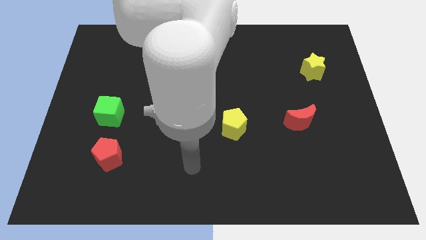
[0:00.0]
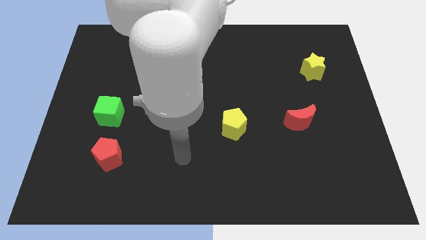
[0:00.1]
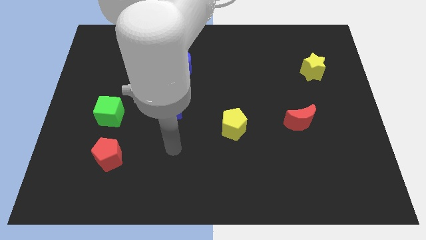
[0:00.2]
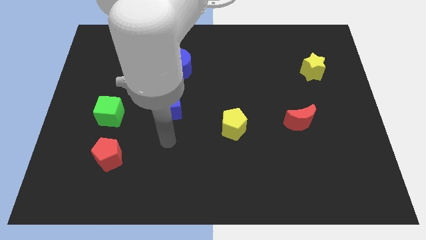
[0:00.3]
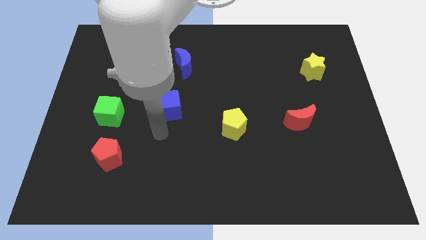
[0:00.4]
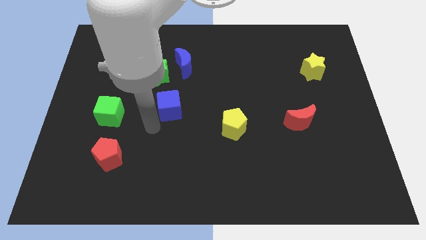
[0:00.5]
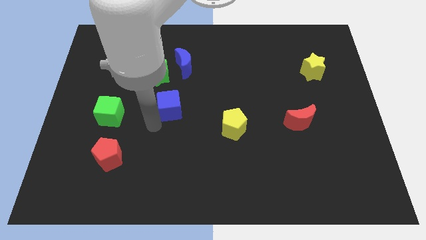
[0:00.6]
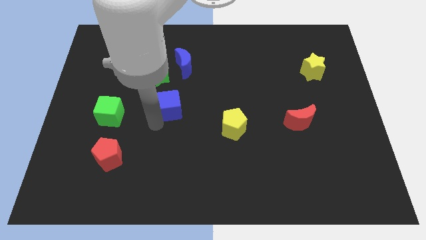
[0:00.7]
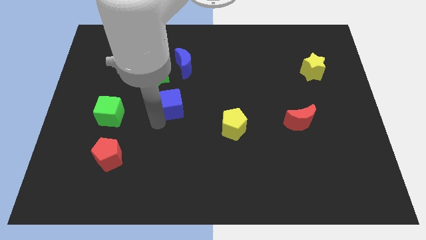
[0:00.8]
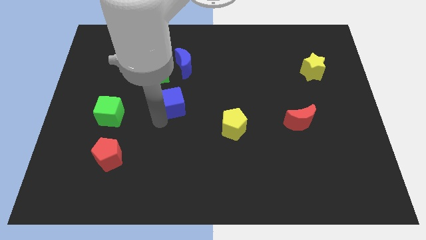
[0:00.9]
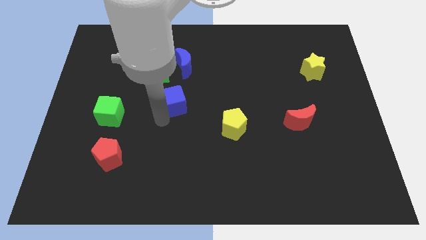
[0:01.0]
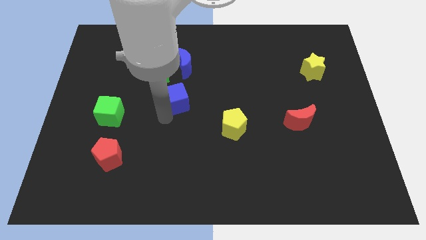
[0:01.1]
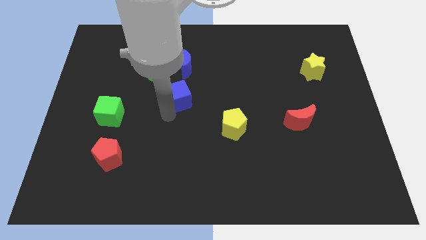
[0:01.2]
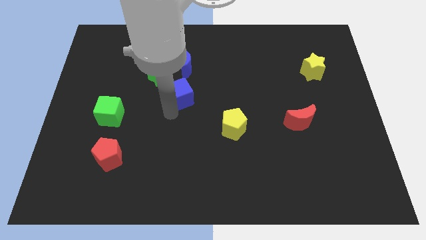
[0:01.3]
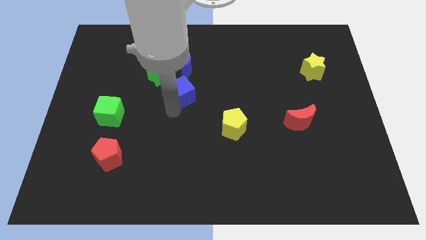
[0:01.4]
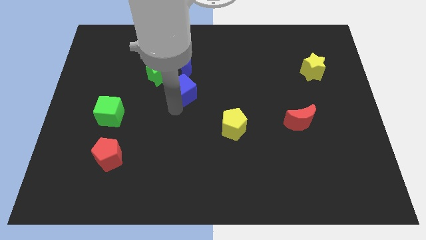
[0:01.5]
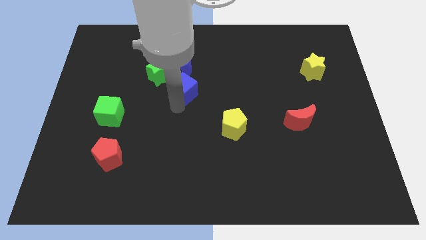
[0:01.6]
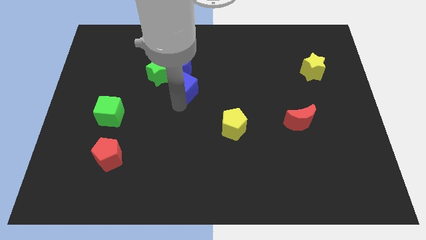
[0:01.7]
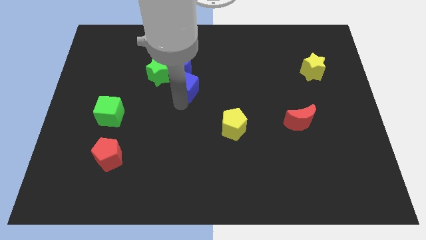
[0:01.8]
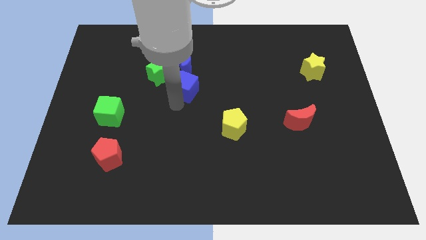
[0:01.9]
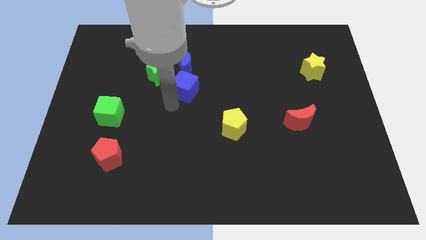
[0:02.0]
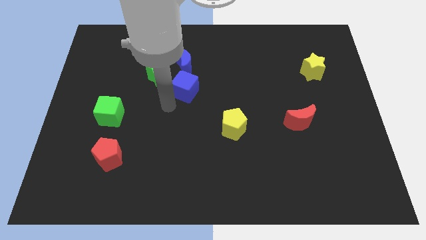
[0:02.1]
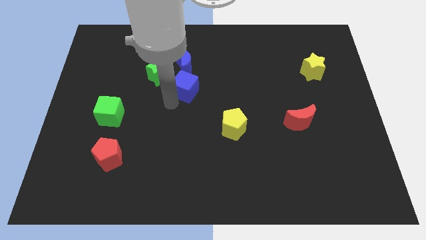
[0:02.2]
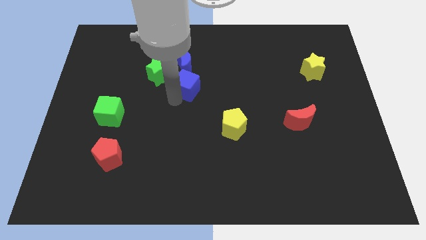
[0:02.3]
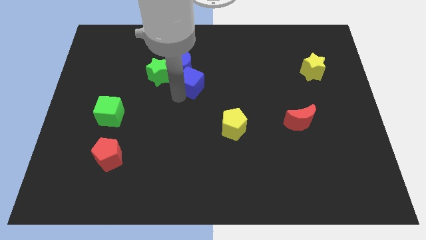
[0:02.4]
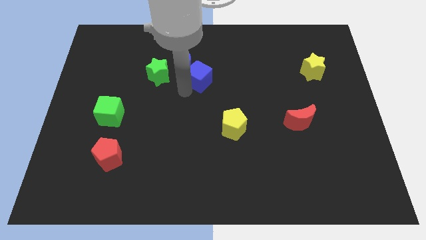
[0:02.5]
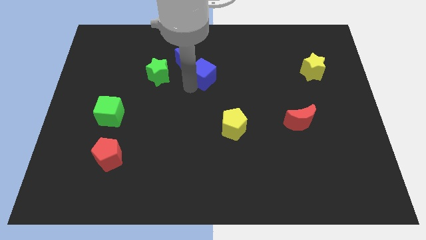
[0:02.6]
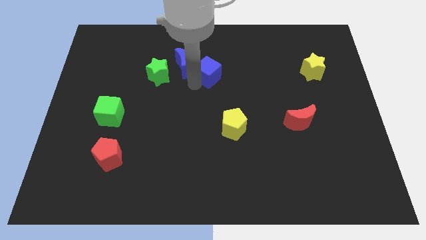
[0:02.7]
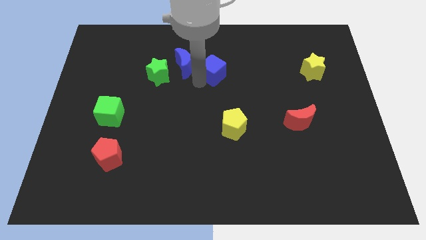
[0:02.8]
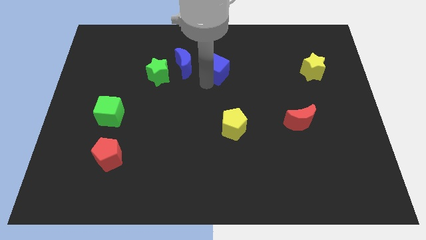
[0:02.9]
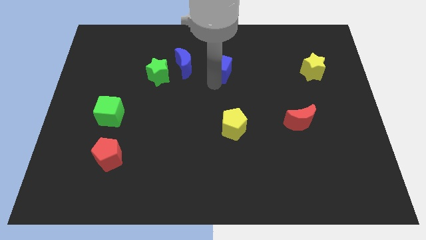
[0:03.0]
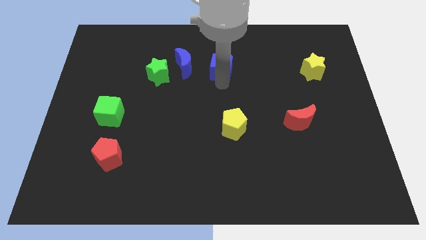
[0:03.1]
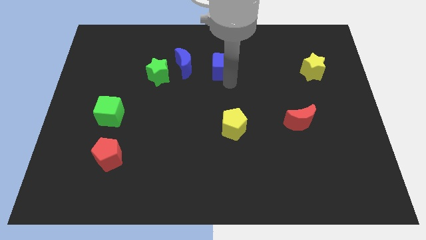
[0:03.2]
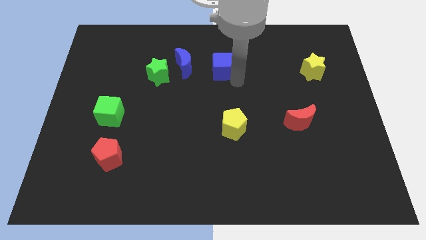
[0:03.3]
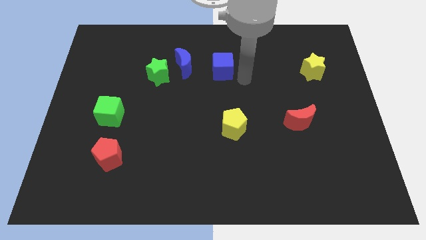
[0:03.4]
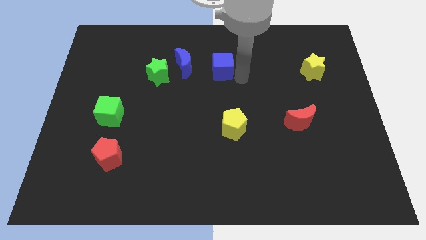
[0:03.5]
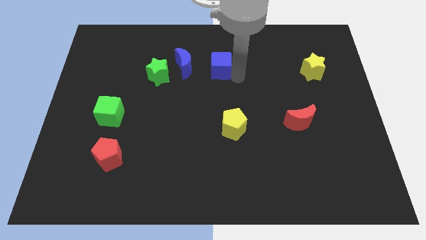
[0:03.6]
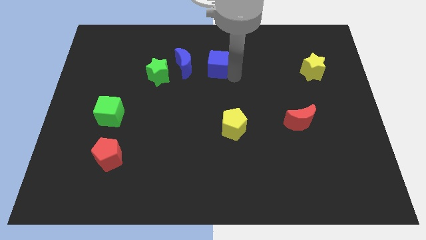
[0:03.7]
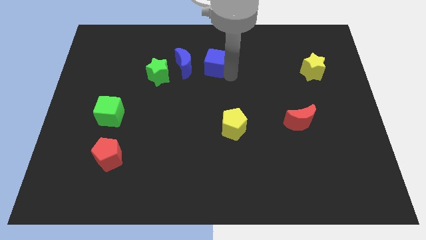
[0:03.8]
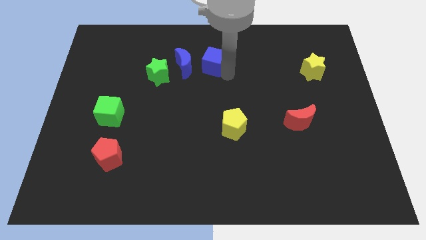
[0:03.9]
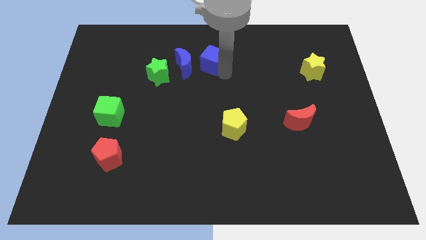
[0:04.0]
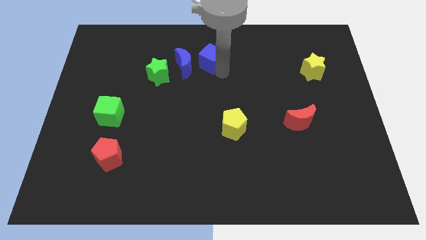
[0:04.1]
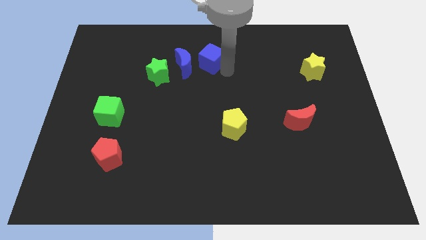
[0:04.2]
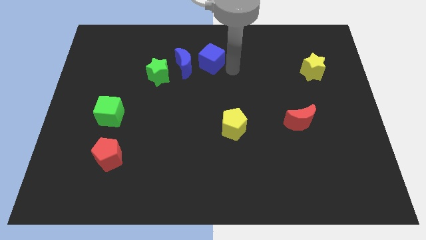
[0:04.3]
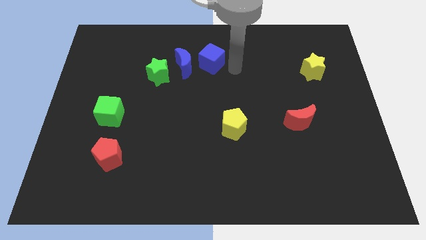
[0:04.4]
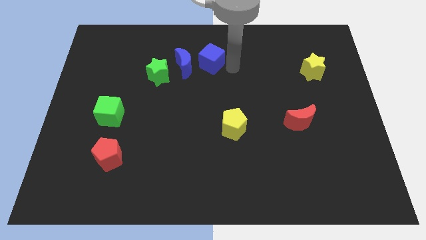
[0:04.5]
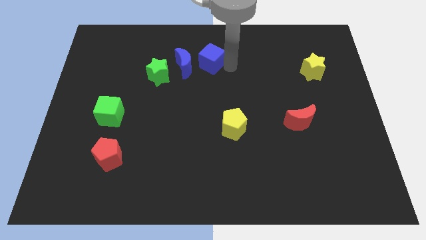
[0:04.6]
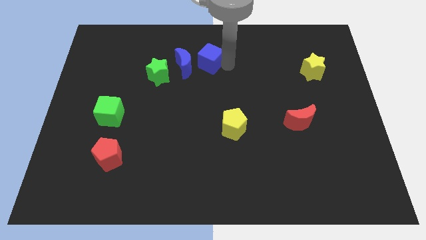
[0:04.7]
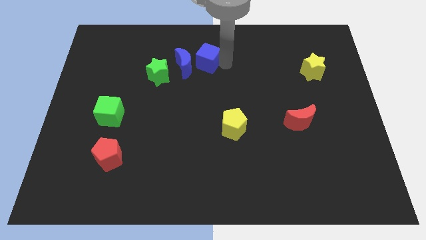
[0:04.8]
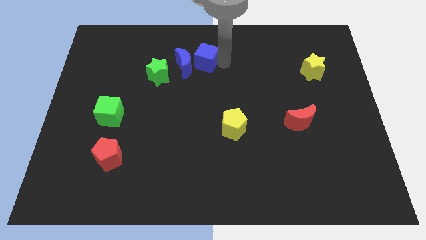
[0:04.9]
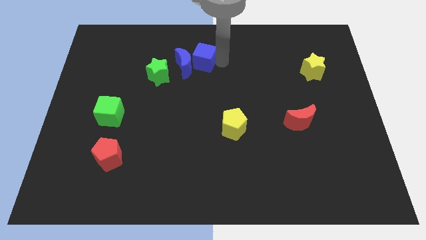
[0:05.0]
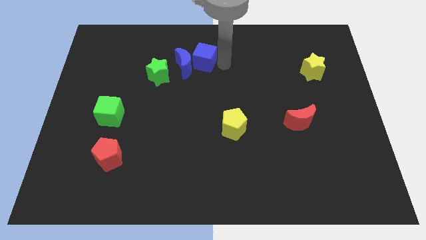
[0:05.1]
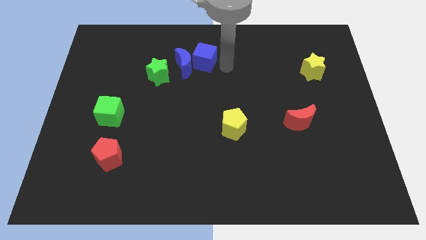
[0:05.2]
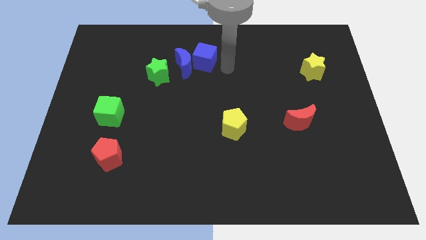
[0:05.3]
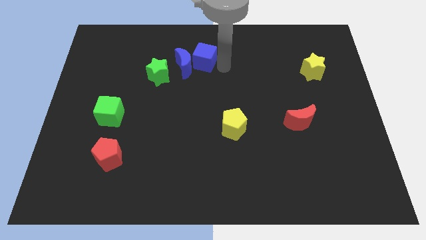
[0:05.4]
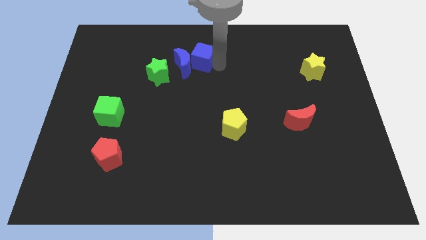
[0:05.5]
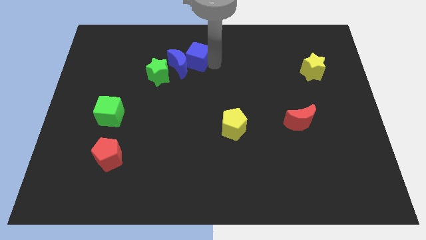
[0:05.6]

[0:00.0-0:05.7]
move the blue cube to the top right side of the green star

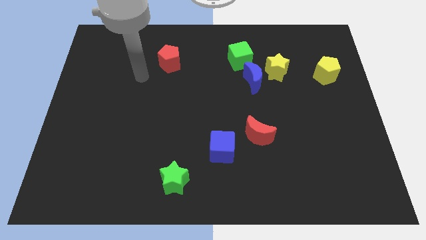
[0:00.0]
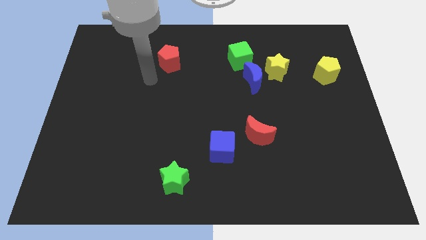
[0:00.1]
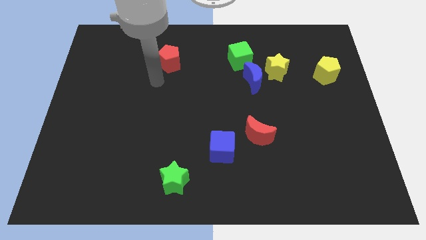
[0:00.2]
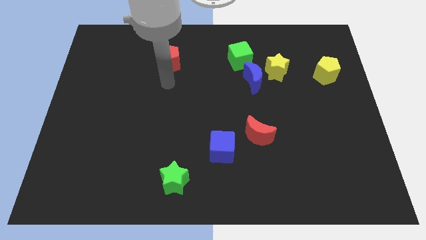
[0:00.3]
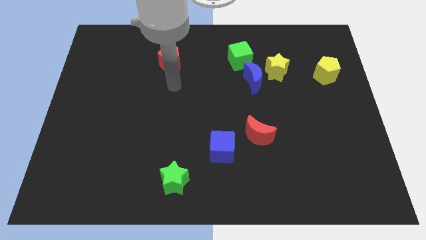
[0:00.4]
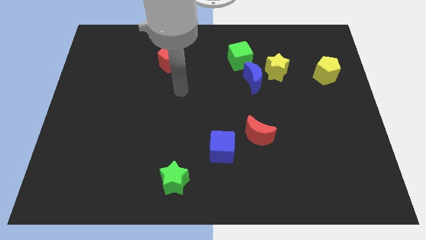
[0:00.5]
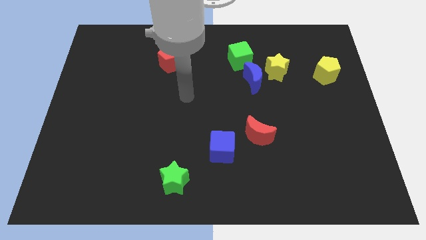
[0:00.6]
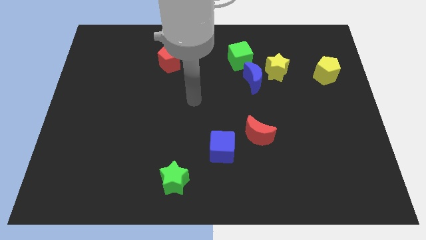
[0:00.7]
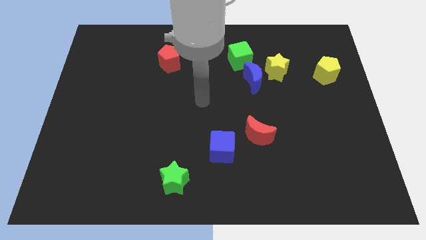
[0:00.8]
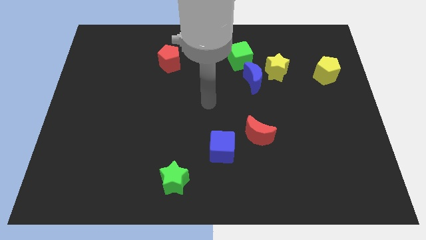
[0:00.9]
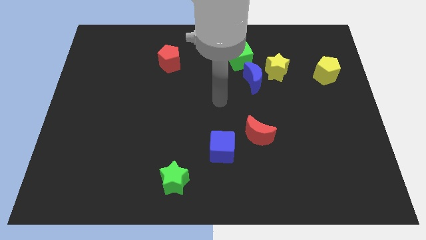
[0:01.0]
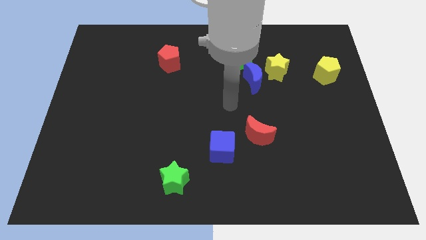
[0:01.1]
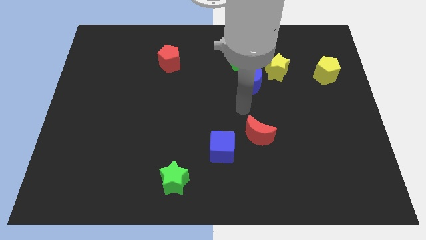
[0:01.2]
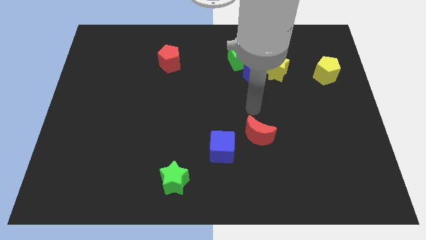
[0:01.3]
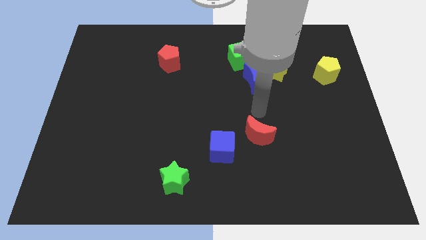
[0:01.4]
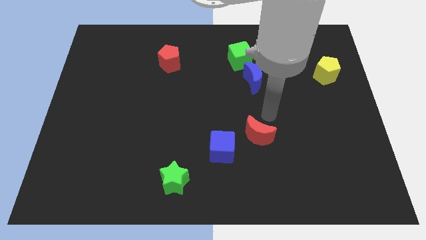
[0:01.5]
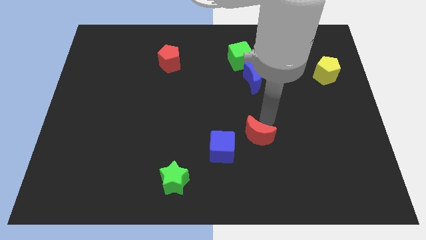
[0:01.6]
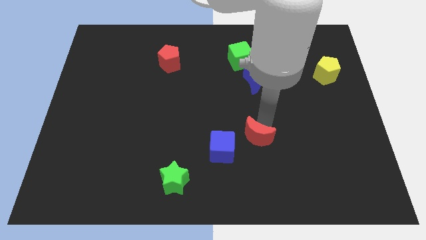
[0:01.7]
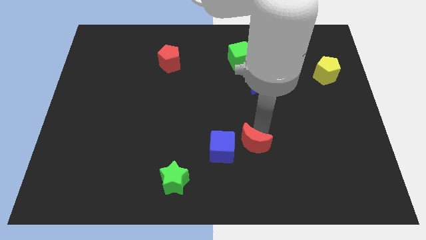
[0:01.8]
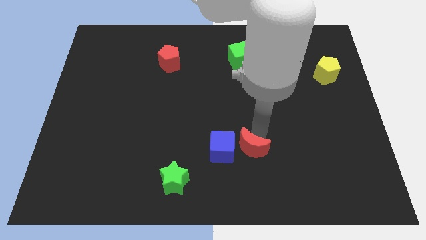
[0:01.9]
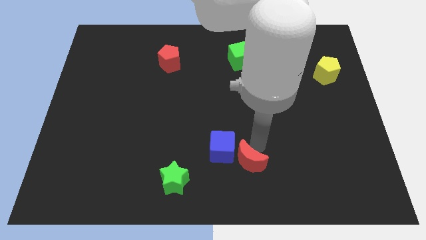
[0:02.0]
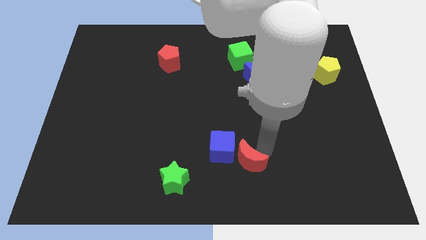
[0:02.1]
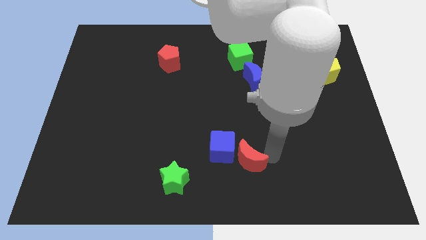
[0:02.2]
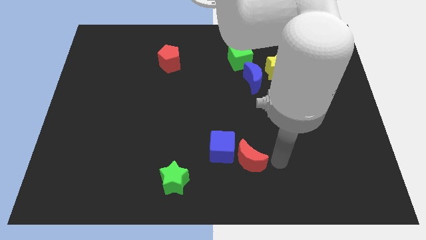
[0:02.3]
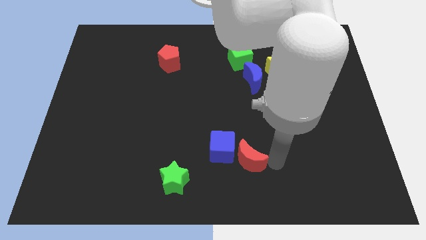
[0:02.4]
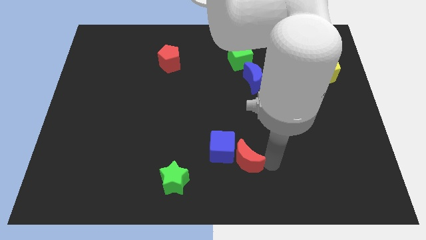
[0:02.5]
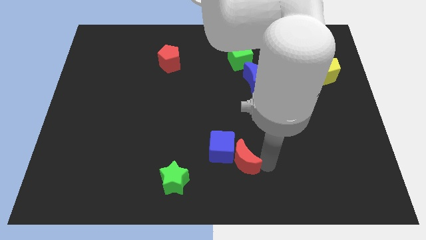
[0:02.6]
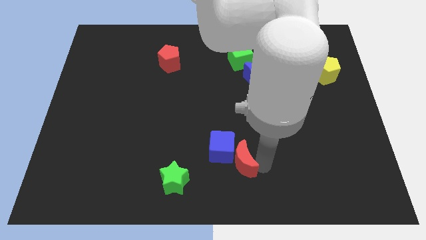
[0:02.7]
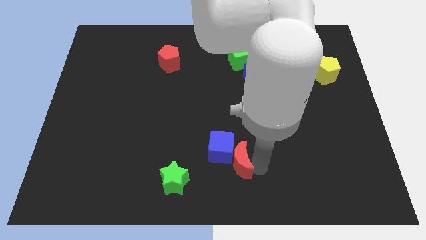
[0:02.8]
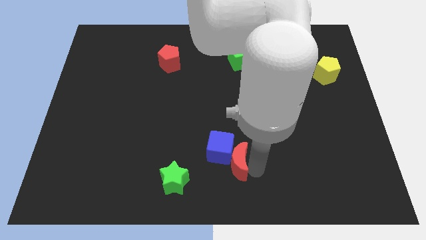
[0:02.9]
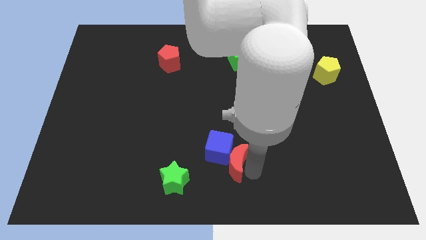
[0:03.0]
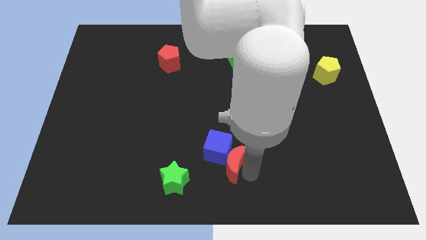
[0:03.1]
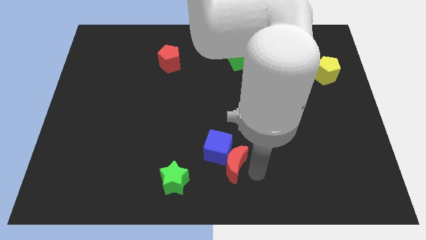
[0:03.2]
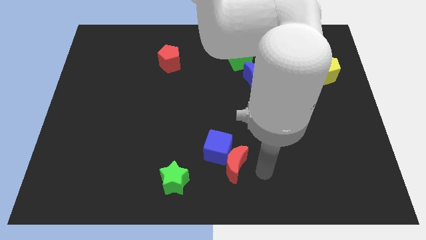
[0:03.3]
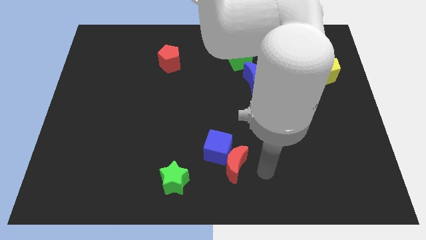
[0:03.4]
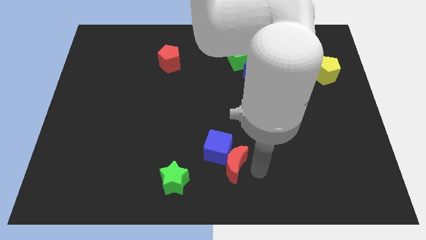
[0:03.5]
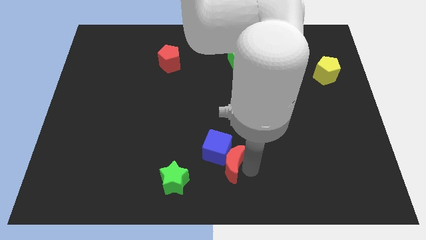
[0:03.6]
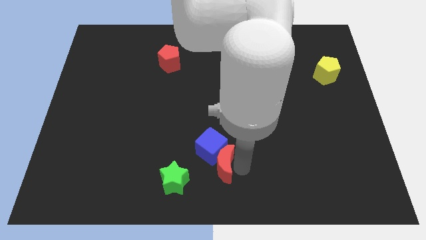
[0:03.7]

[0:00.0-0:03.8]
push the red moon diagonally up and to the right of the green star
